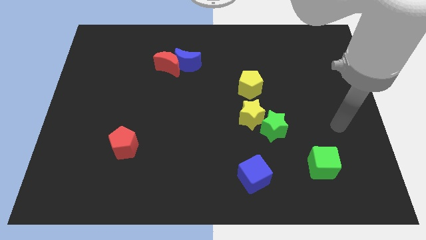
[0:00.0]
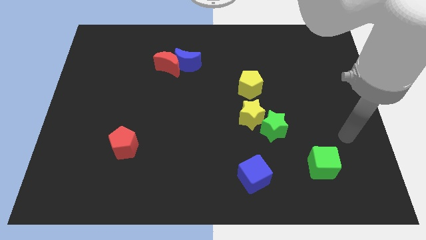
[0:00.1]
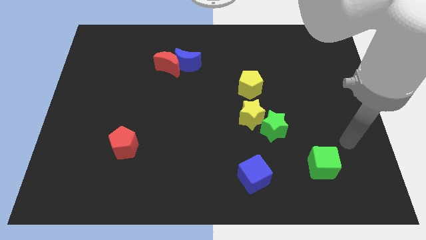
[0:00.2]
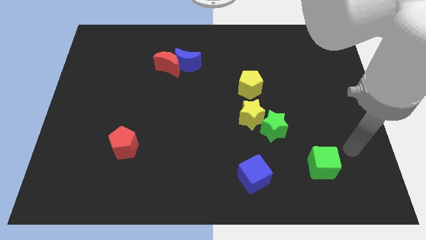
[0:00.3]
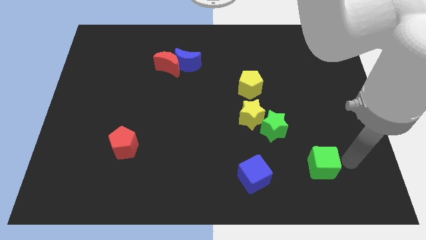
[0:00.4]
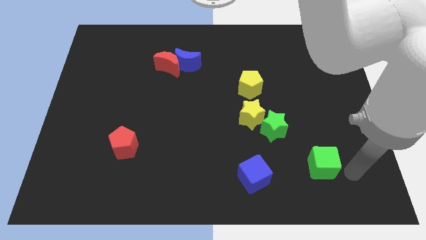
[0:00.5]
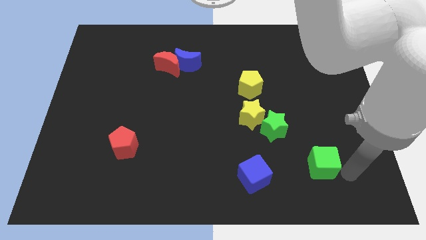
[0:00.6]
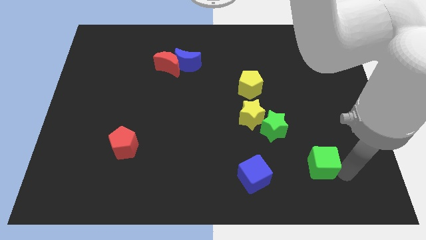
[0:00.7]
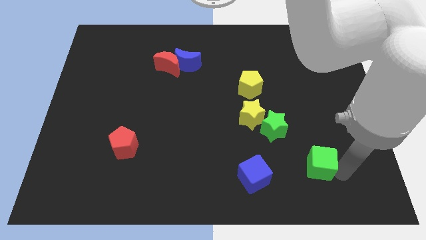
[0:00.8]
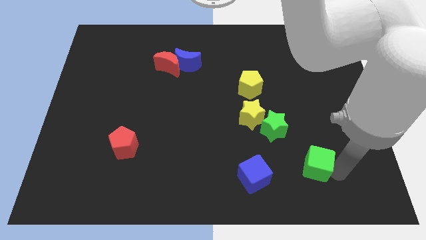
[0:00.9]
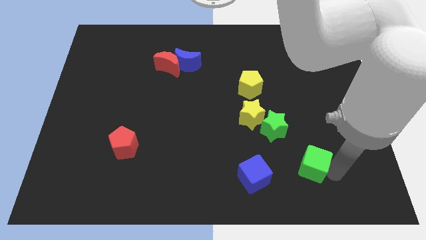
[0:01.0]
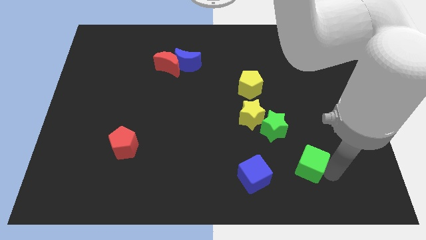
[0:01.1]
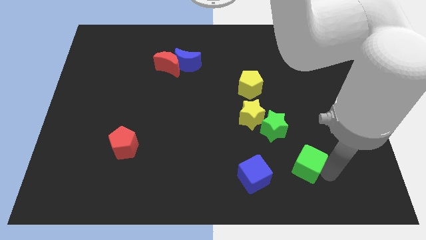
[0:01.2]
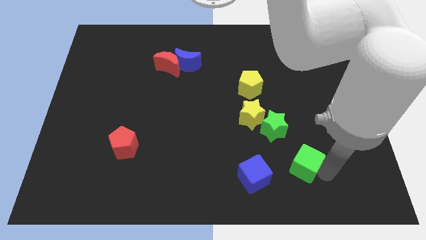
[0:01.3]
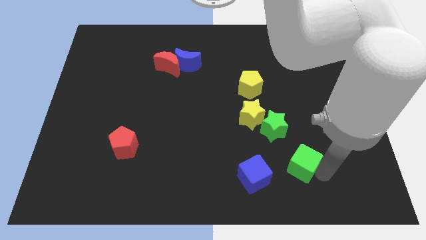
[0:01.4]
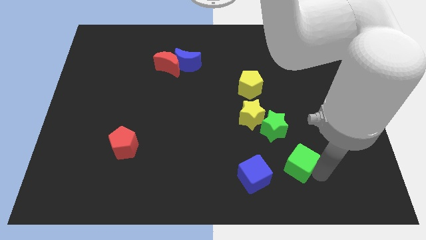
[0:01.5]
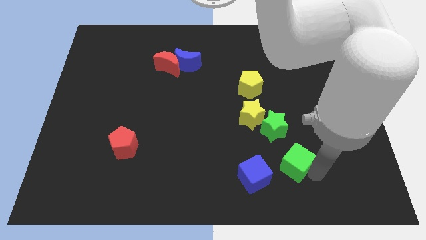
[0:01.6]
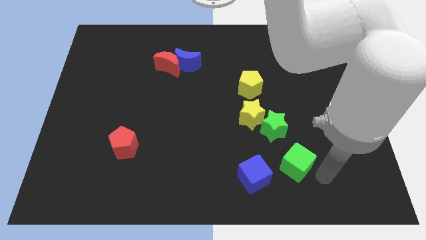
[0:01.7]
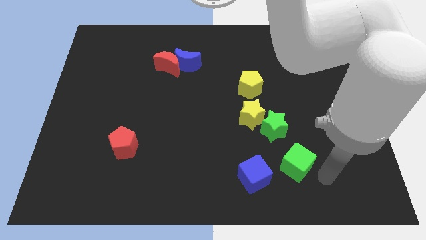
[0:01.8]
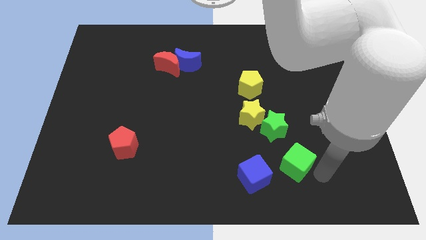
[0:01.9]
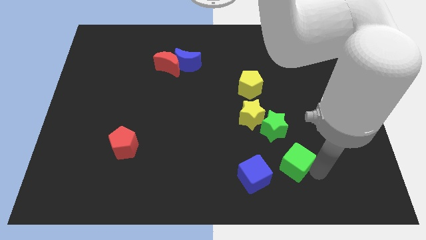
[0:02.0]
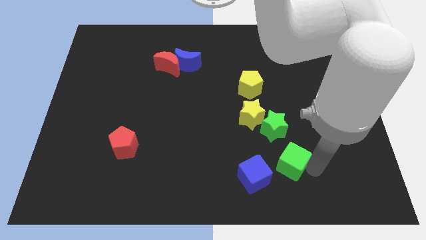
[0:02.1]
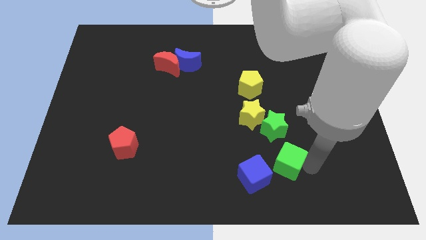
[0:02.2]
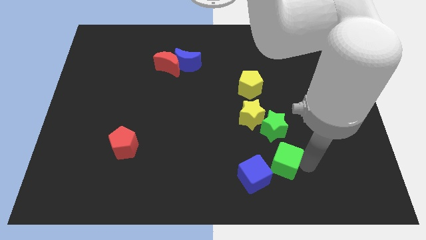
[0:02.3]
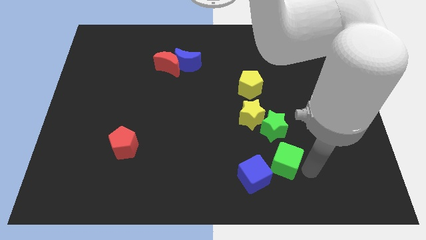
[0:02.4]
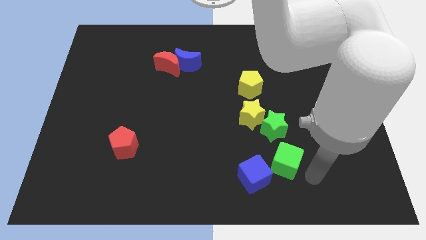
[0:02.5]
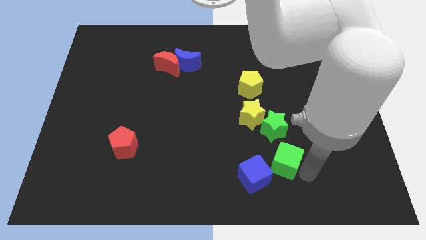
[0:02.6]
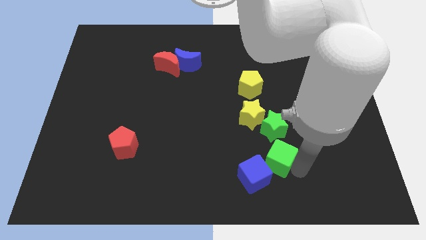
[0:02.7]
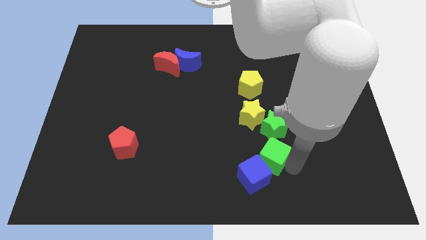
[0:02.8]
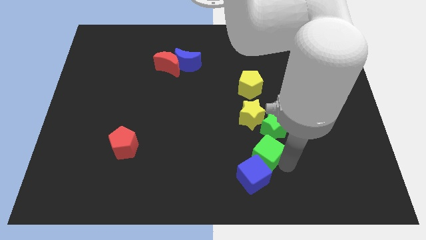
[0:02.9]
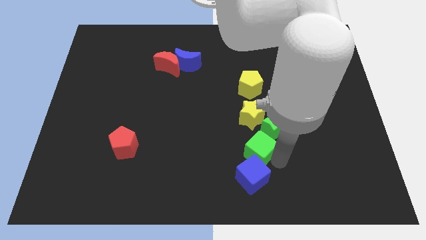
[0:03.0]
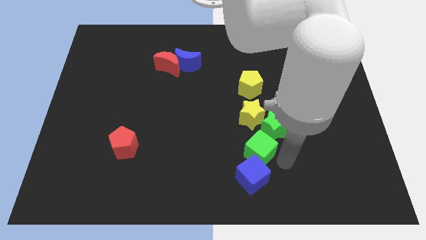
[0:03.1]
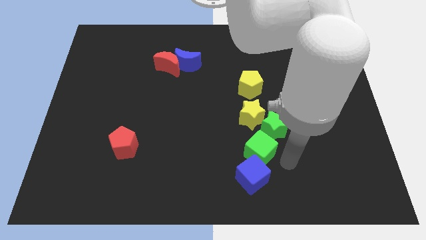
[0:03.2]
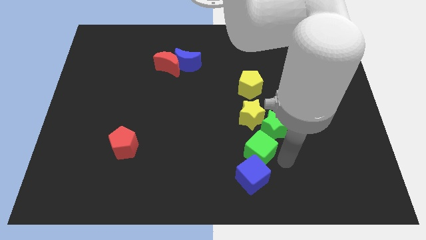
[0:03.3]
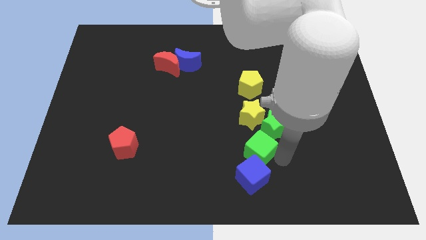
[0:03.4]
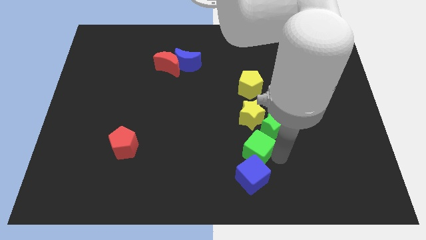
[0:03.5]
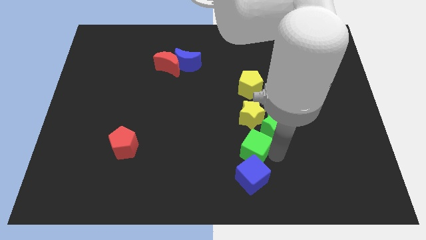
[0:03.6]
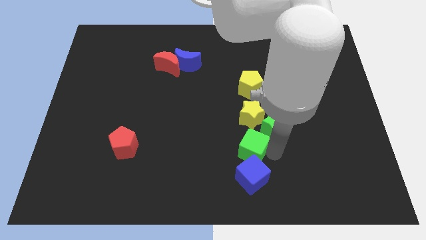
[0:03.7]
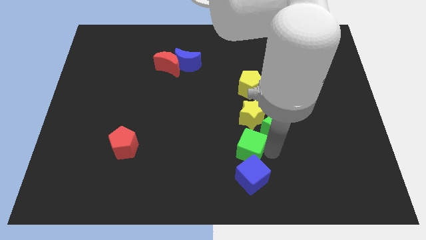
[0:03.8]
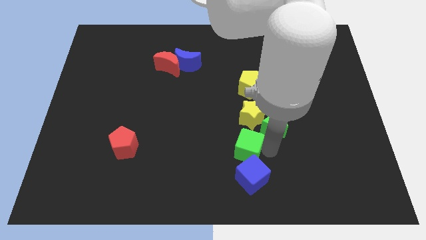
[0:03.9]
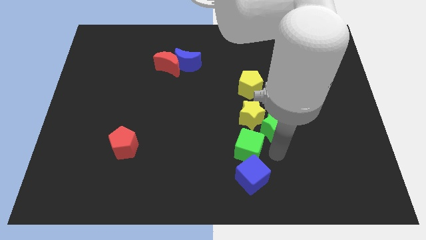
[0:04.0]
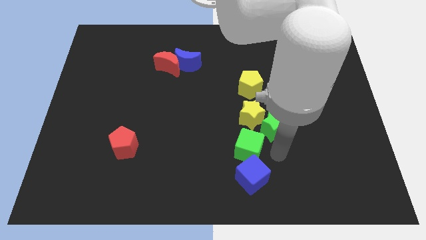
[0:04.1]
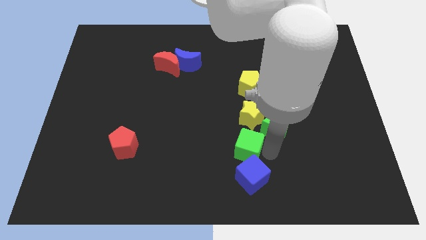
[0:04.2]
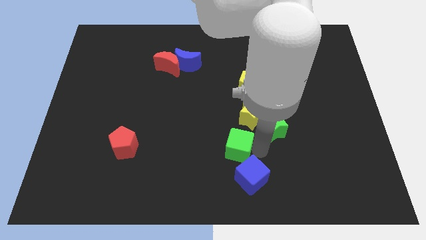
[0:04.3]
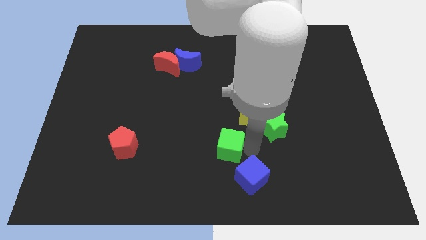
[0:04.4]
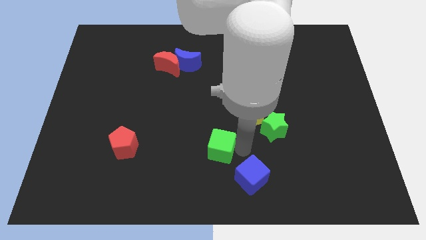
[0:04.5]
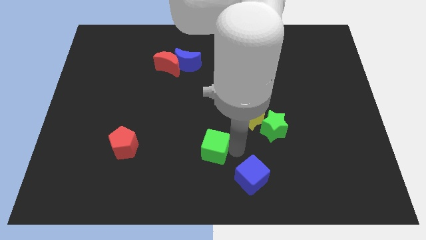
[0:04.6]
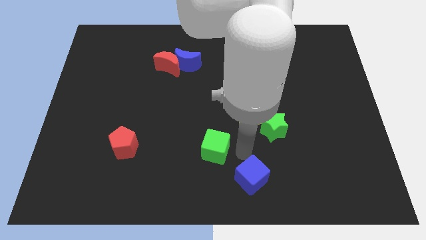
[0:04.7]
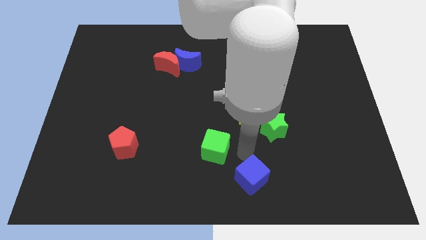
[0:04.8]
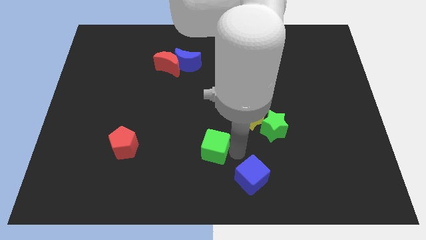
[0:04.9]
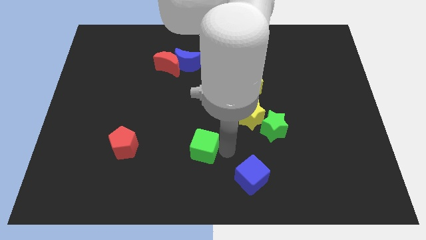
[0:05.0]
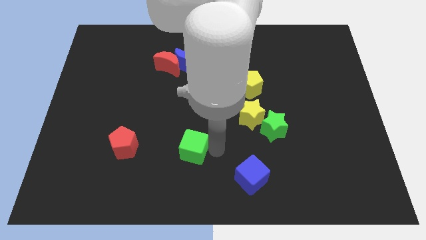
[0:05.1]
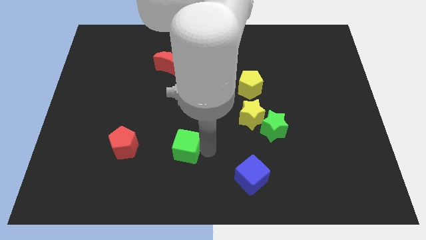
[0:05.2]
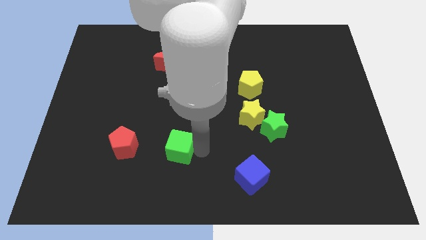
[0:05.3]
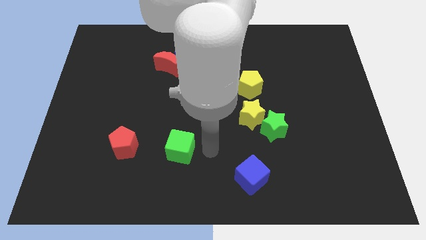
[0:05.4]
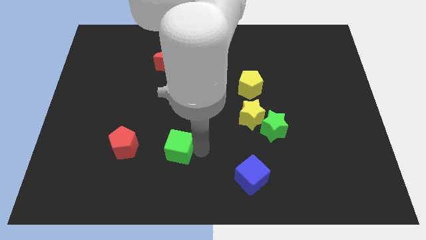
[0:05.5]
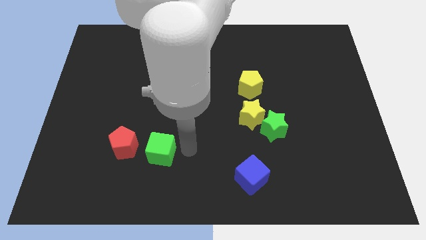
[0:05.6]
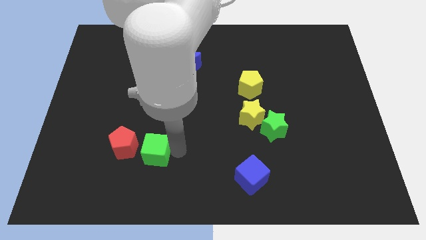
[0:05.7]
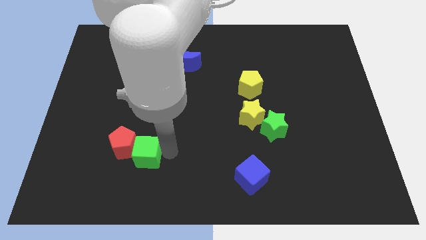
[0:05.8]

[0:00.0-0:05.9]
slide the green cube to the red pentagon

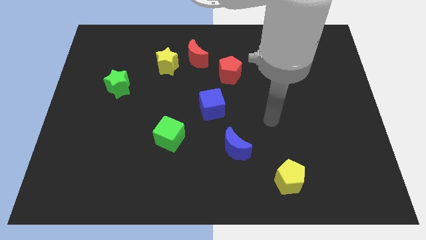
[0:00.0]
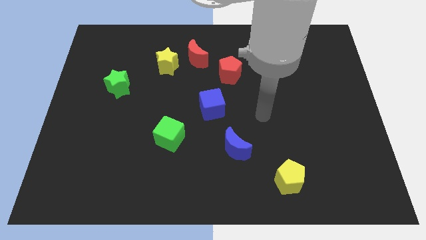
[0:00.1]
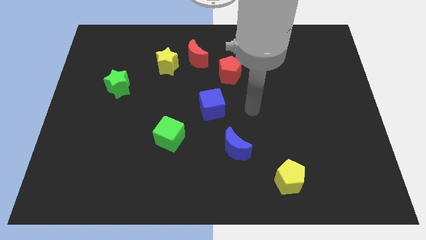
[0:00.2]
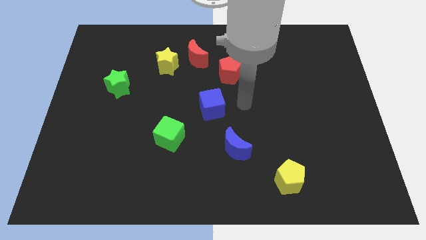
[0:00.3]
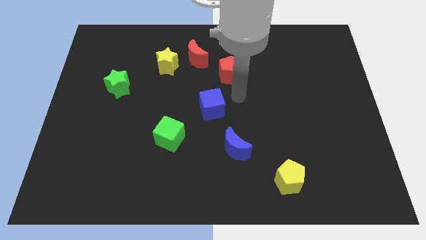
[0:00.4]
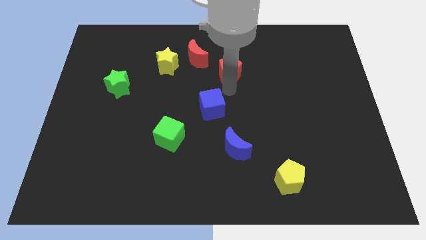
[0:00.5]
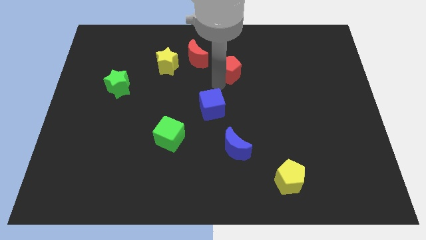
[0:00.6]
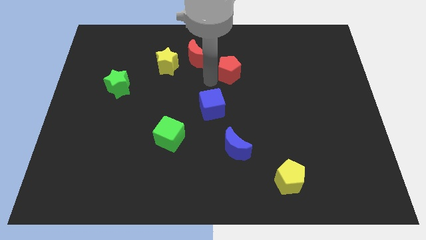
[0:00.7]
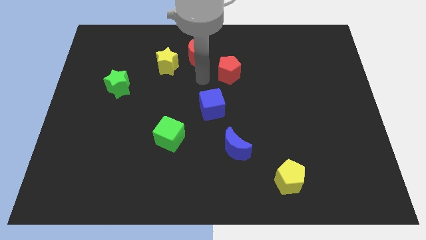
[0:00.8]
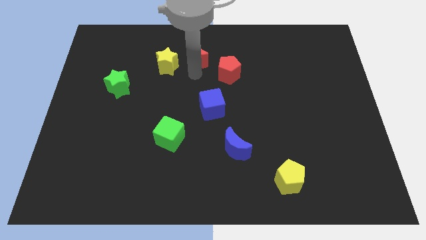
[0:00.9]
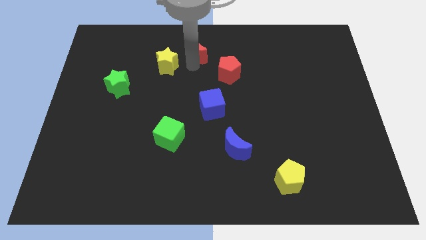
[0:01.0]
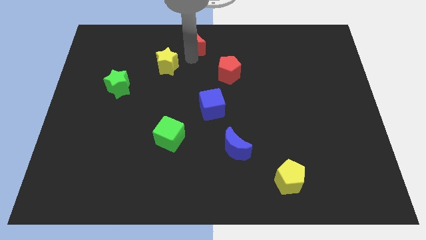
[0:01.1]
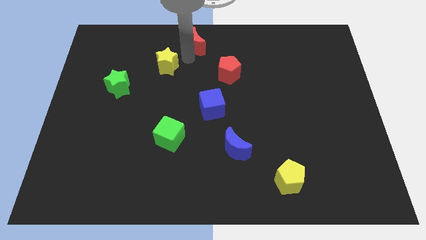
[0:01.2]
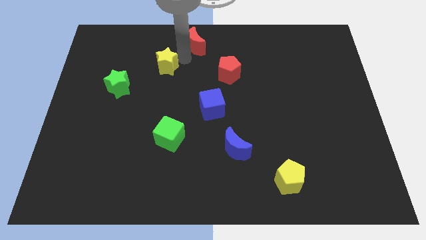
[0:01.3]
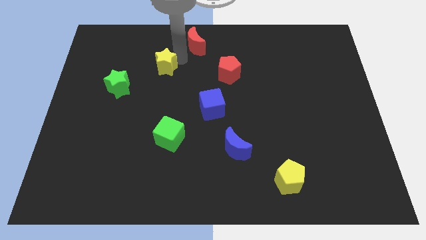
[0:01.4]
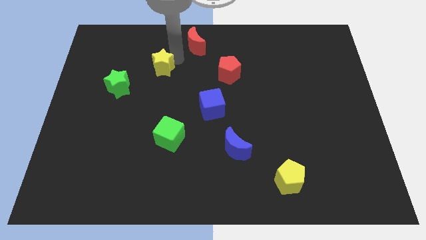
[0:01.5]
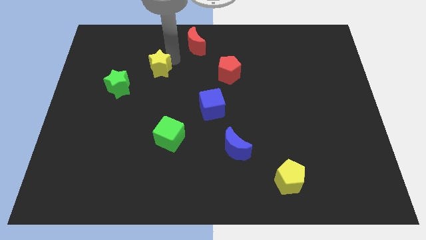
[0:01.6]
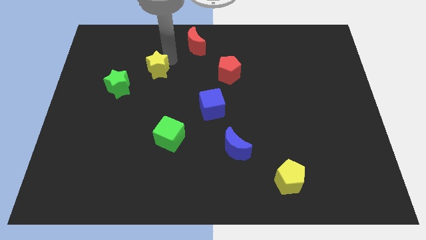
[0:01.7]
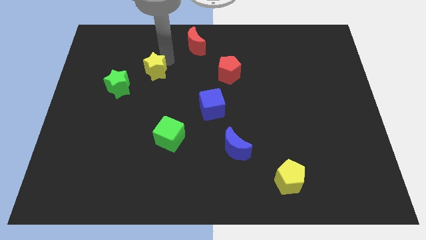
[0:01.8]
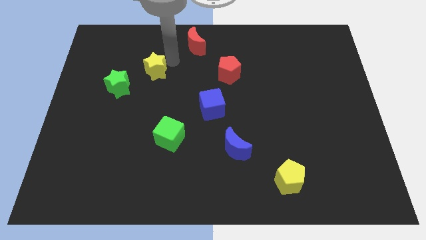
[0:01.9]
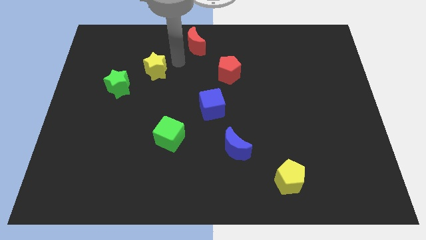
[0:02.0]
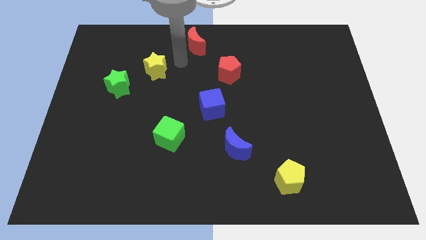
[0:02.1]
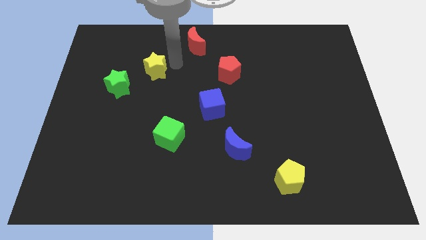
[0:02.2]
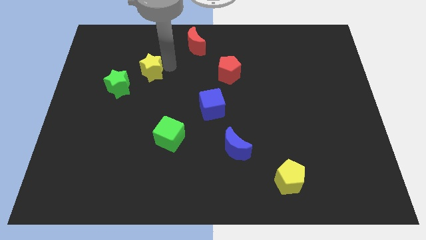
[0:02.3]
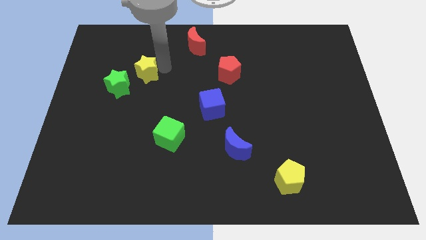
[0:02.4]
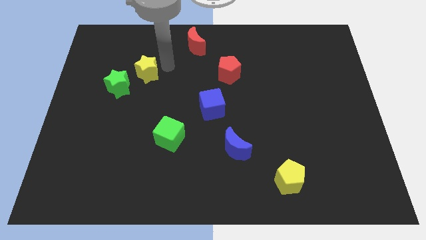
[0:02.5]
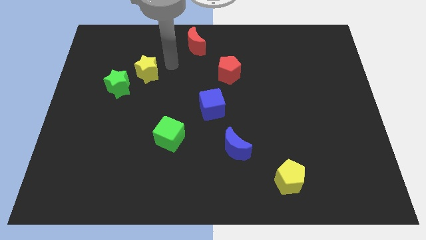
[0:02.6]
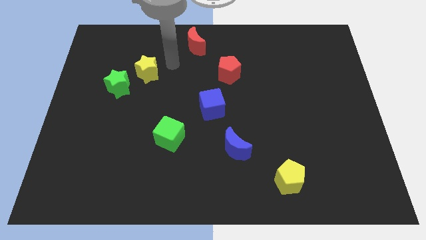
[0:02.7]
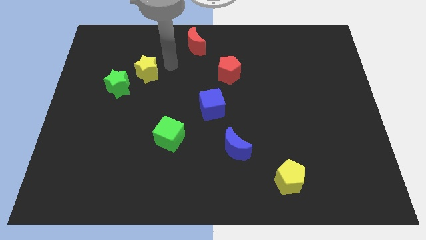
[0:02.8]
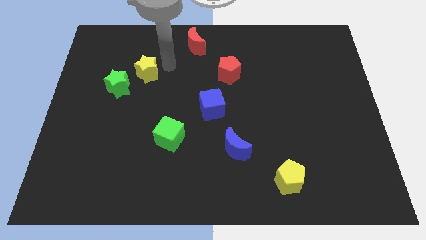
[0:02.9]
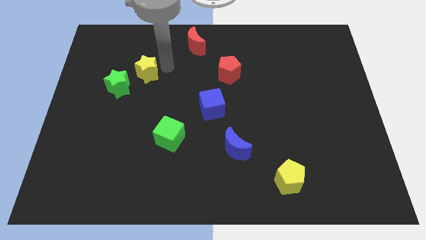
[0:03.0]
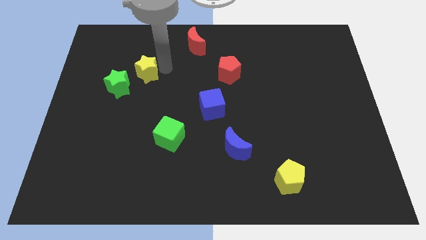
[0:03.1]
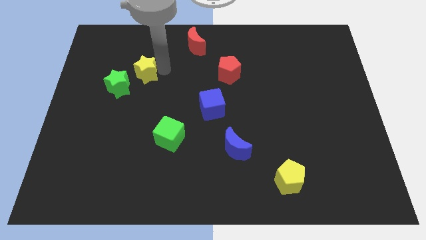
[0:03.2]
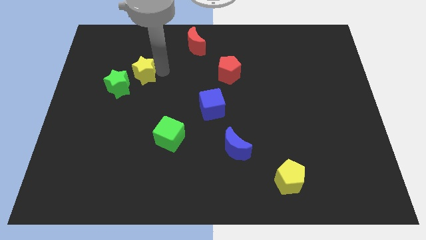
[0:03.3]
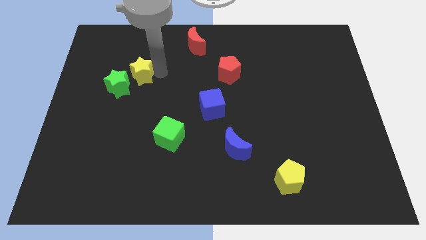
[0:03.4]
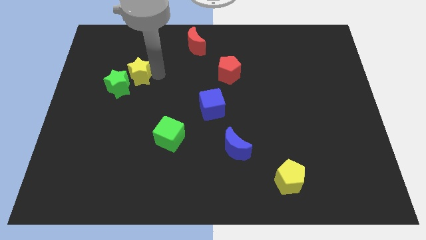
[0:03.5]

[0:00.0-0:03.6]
push the yellow star to the green star
